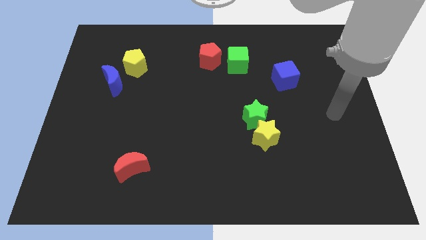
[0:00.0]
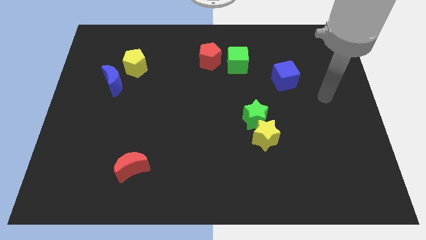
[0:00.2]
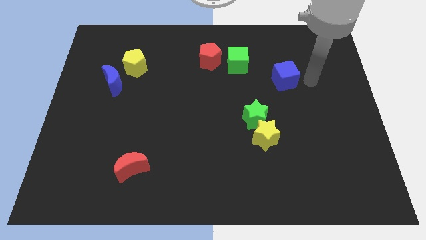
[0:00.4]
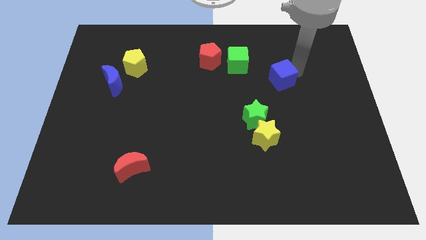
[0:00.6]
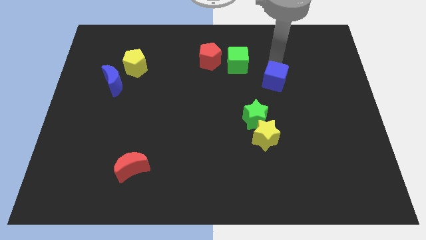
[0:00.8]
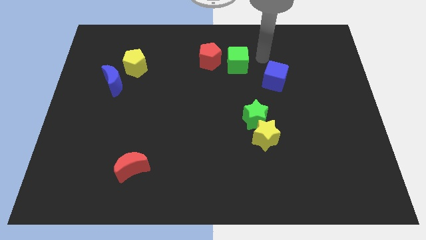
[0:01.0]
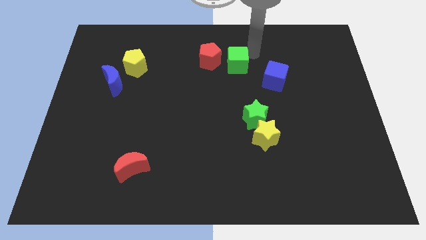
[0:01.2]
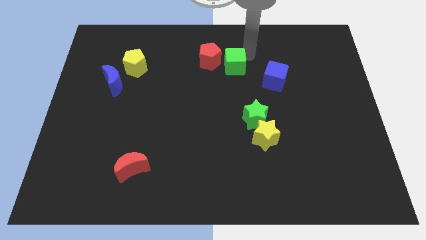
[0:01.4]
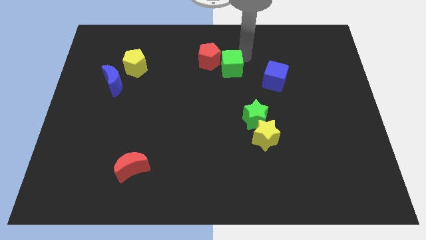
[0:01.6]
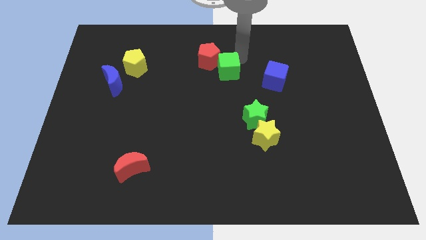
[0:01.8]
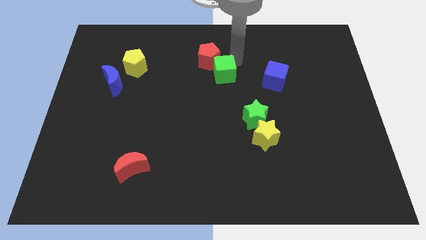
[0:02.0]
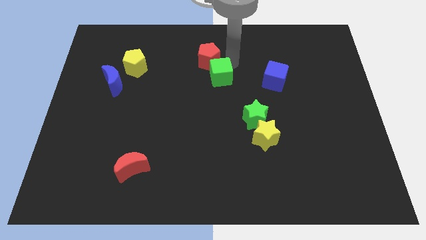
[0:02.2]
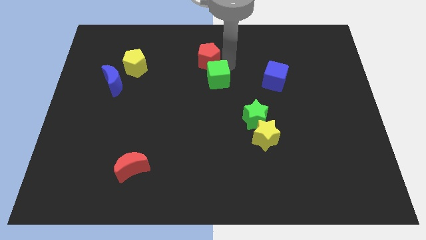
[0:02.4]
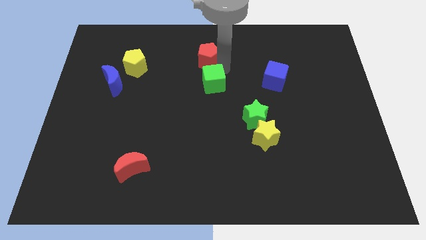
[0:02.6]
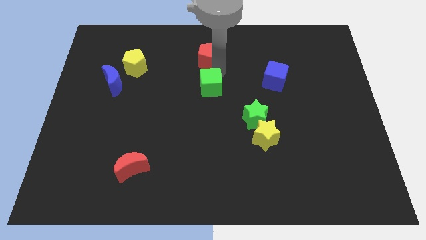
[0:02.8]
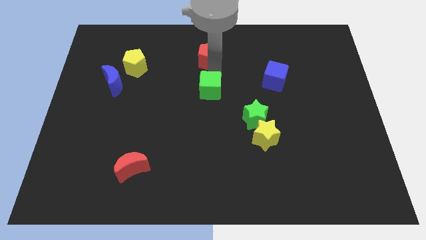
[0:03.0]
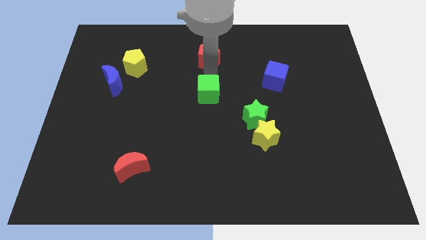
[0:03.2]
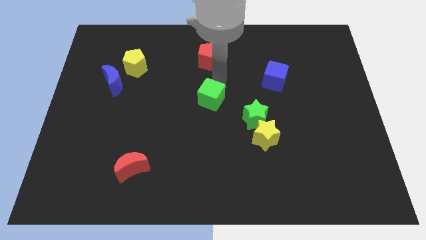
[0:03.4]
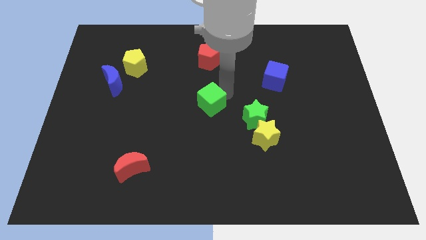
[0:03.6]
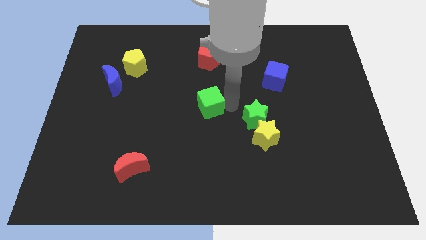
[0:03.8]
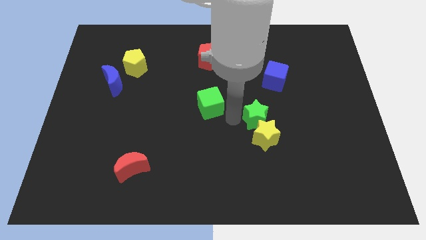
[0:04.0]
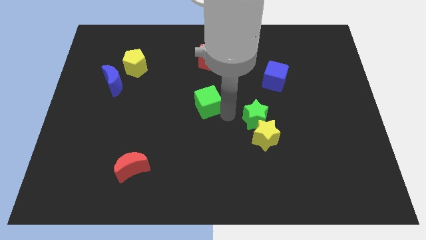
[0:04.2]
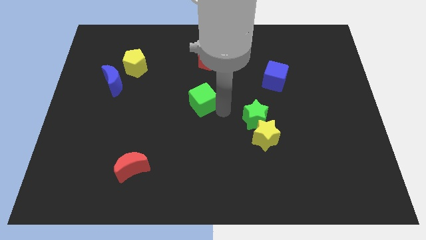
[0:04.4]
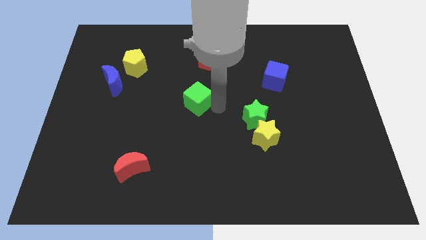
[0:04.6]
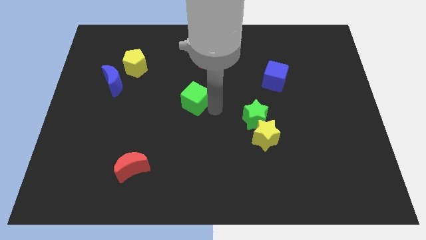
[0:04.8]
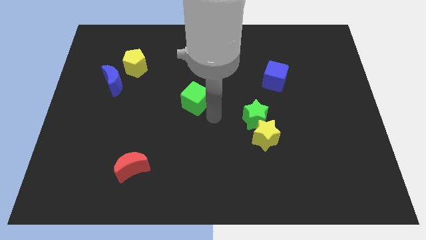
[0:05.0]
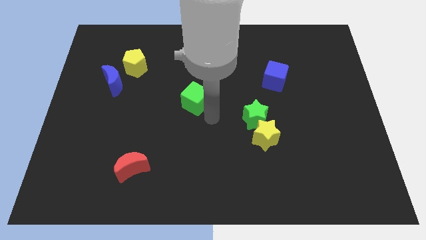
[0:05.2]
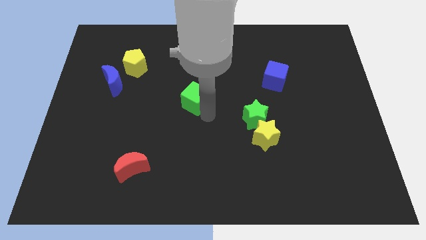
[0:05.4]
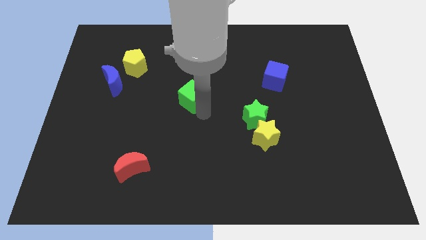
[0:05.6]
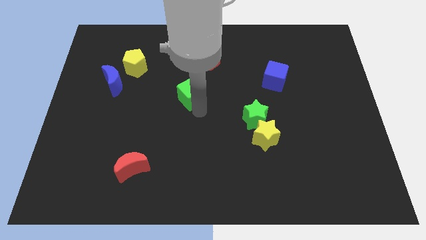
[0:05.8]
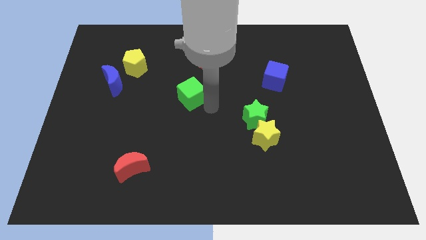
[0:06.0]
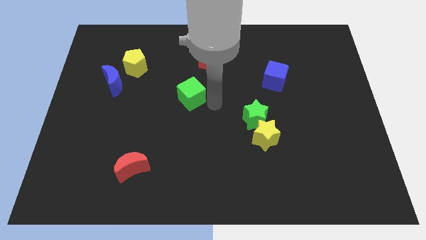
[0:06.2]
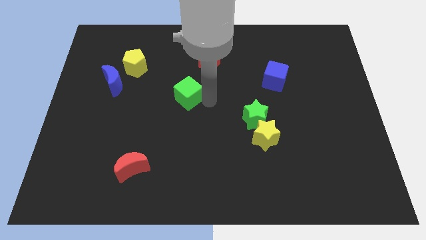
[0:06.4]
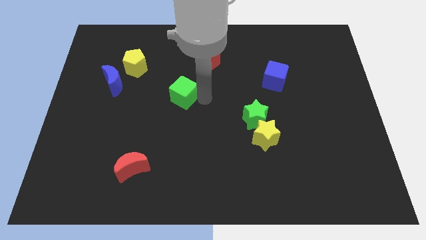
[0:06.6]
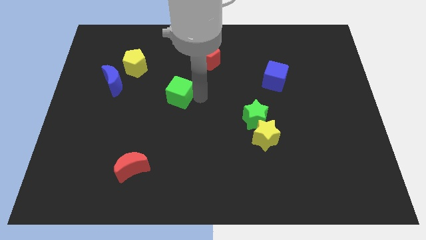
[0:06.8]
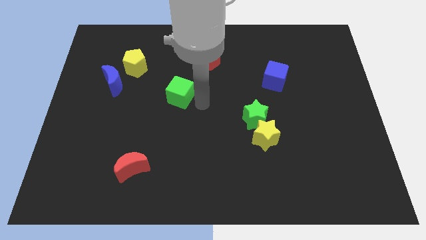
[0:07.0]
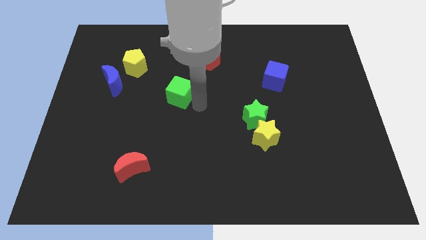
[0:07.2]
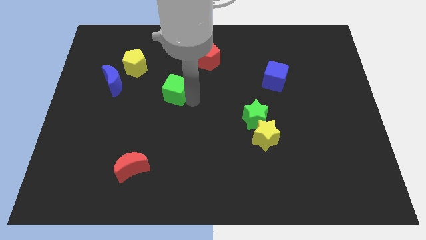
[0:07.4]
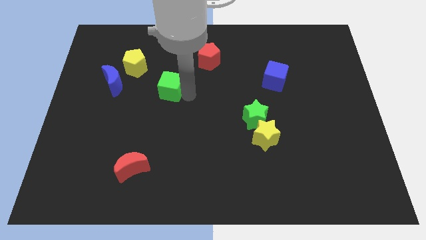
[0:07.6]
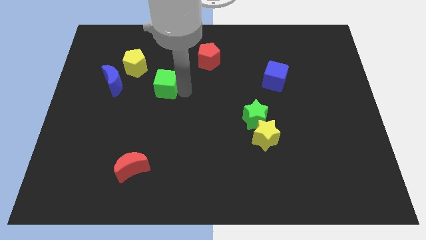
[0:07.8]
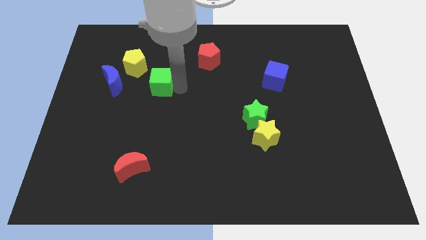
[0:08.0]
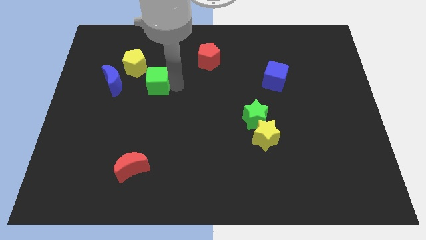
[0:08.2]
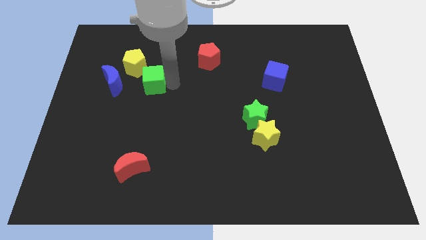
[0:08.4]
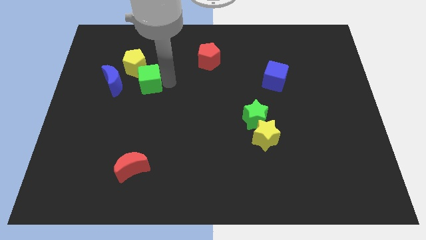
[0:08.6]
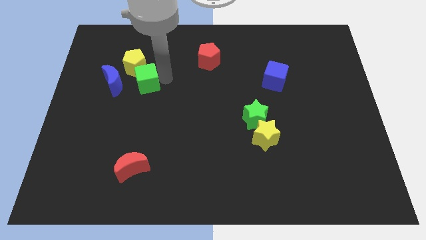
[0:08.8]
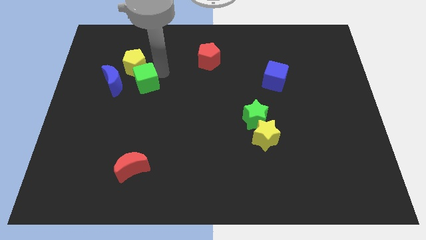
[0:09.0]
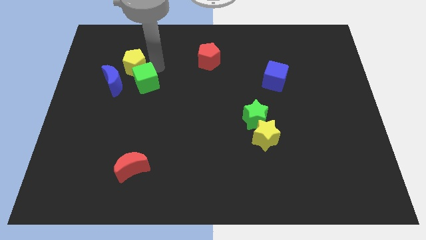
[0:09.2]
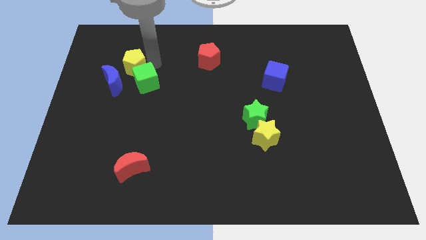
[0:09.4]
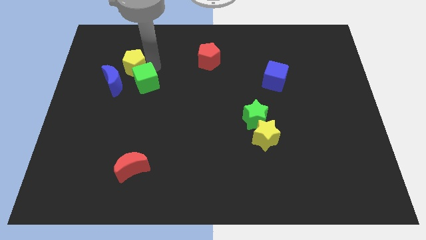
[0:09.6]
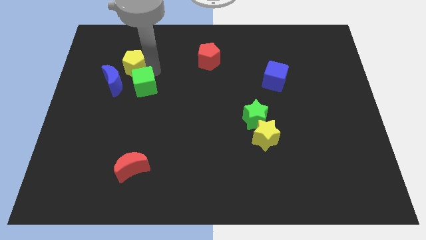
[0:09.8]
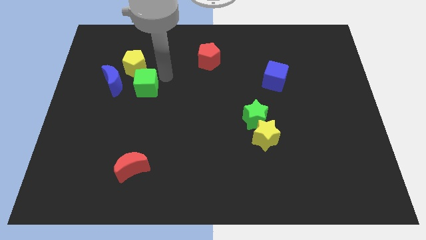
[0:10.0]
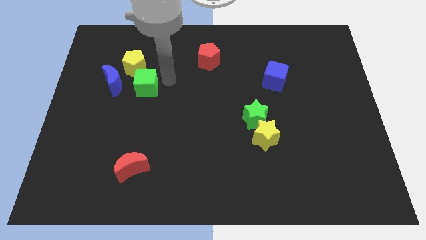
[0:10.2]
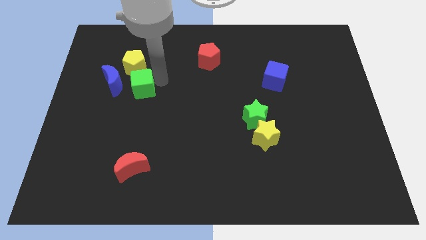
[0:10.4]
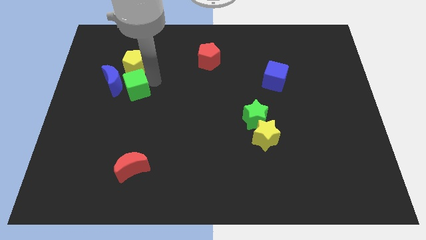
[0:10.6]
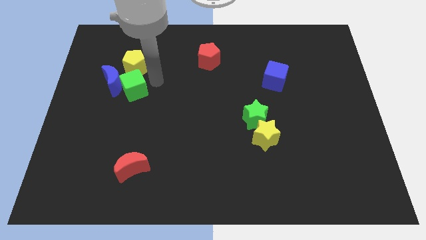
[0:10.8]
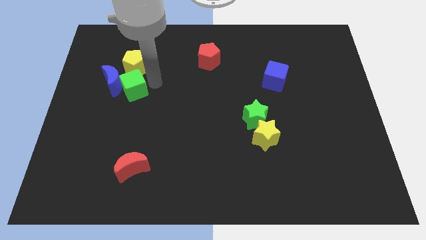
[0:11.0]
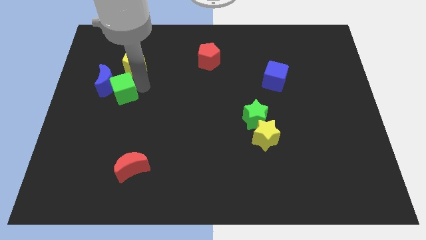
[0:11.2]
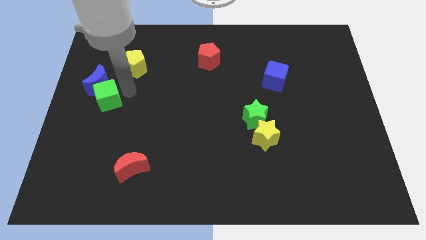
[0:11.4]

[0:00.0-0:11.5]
push the green cube to the left side of the board

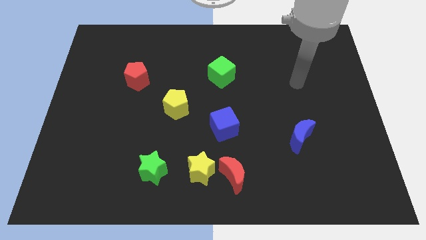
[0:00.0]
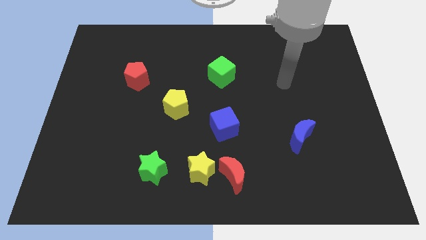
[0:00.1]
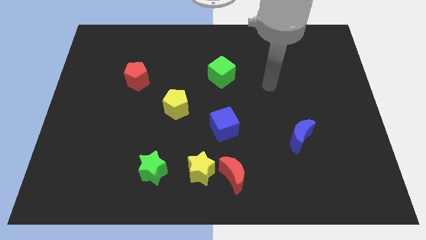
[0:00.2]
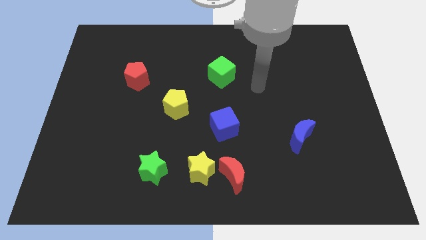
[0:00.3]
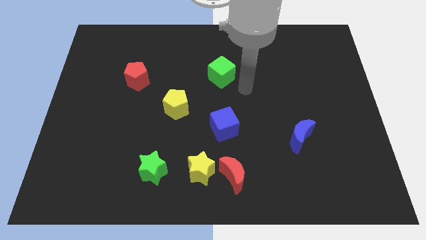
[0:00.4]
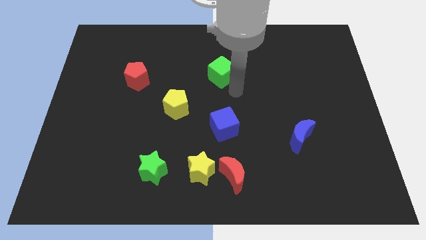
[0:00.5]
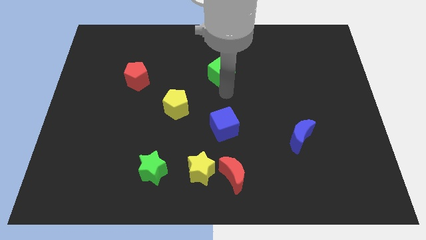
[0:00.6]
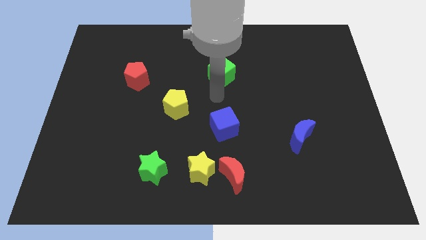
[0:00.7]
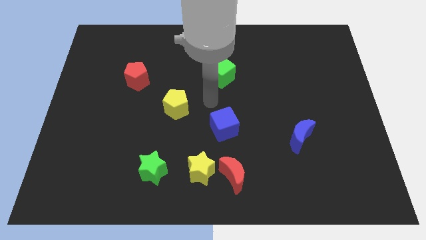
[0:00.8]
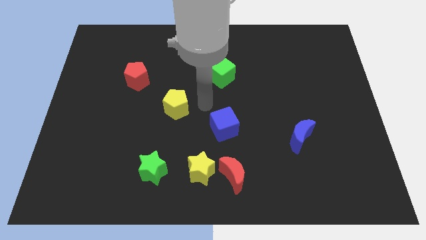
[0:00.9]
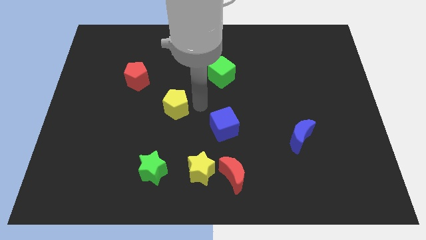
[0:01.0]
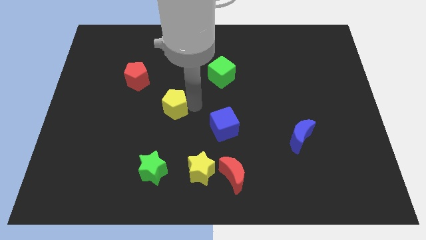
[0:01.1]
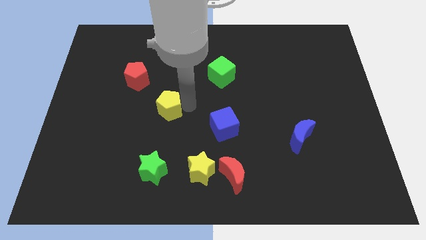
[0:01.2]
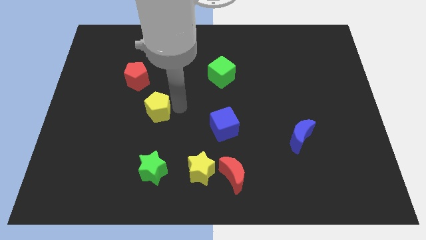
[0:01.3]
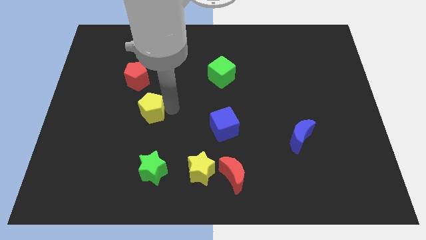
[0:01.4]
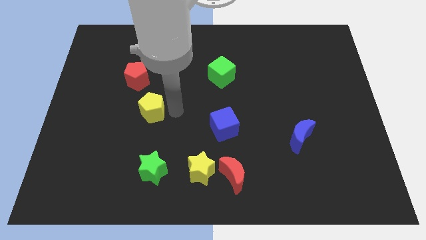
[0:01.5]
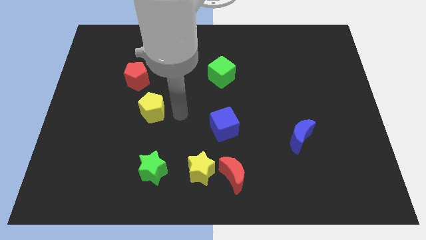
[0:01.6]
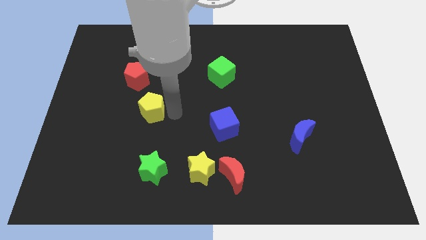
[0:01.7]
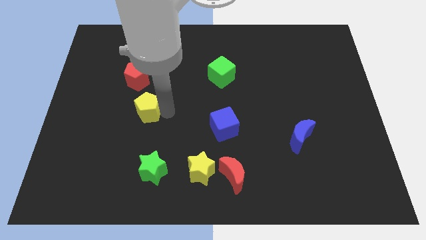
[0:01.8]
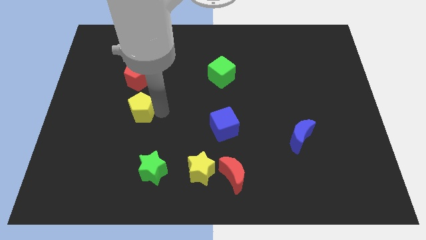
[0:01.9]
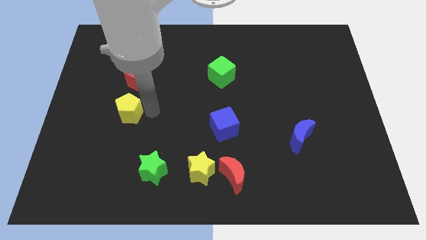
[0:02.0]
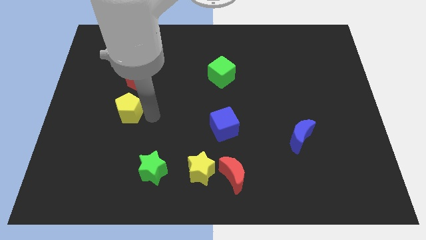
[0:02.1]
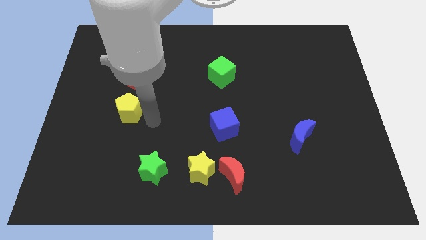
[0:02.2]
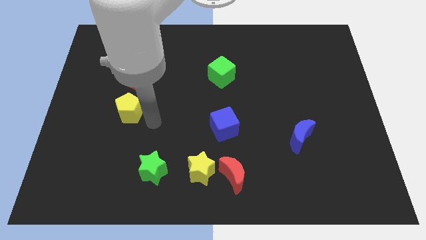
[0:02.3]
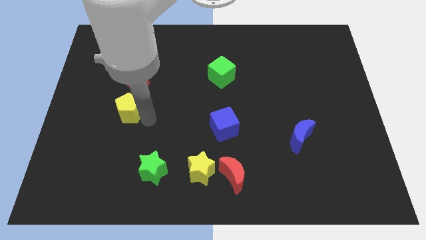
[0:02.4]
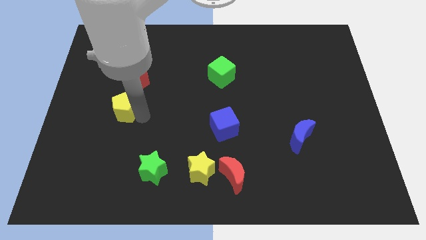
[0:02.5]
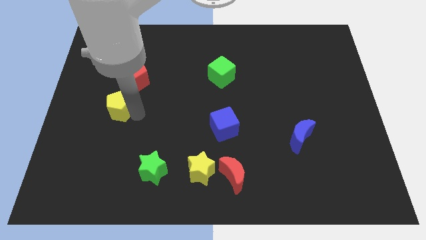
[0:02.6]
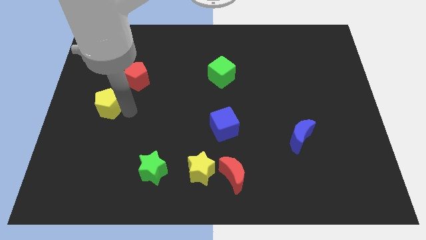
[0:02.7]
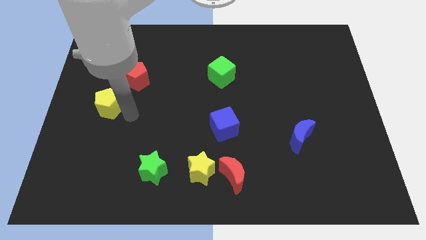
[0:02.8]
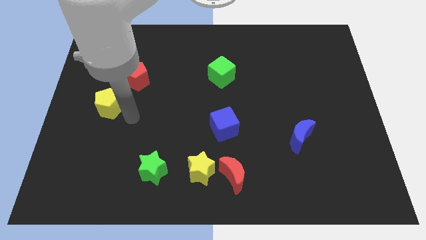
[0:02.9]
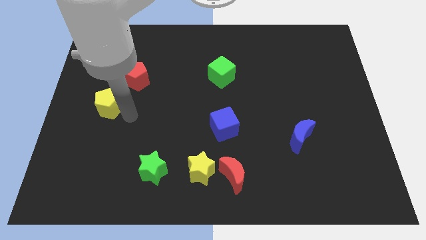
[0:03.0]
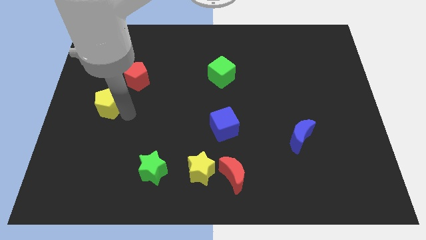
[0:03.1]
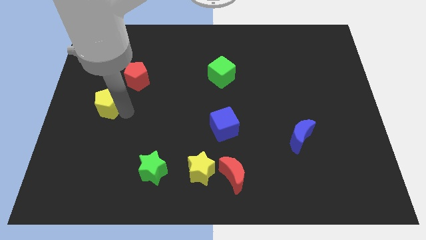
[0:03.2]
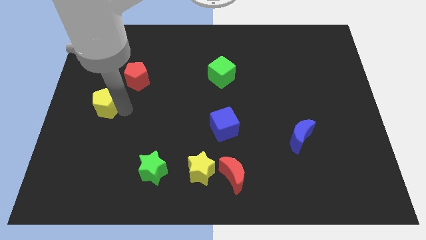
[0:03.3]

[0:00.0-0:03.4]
slide the yellow pentagon to the center left
